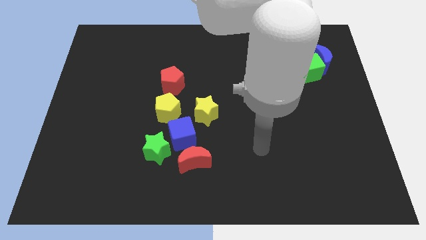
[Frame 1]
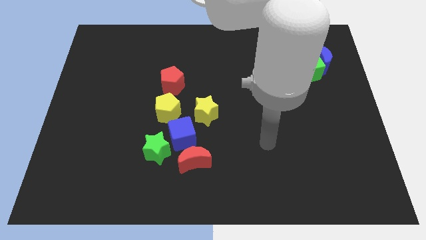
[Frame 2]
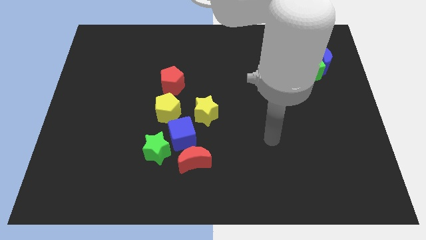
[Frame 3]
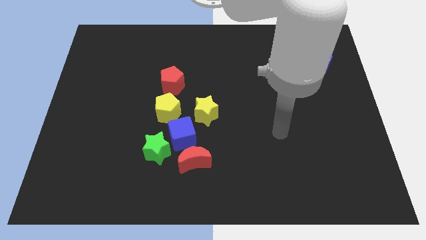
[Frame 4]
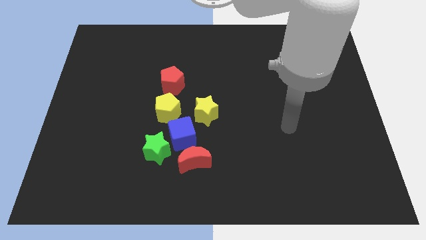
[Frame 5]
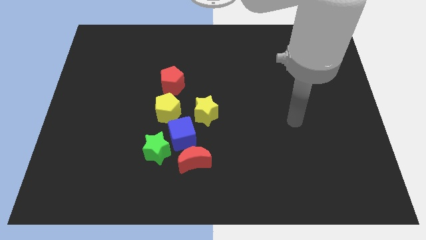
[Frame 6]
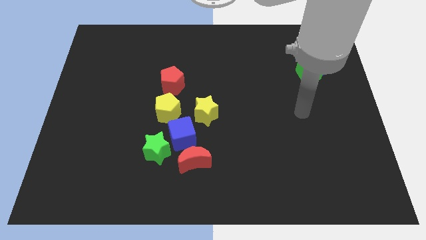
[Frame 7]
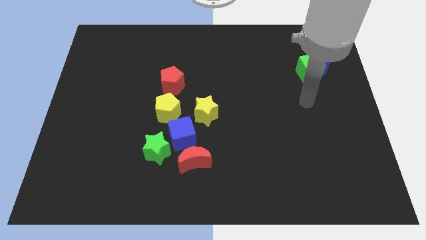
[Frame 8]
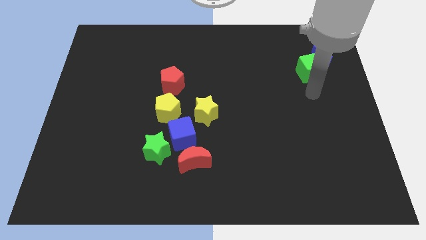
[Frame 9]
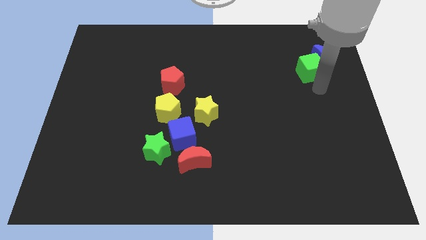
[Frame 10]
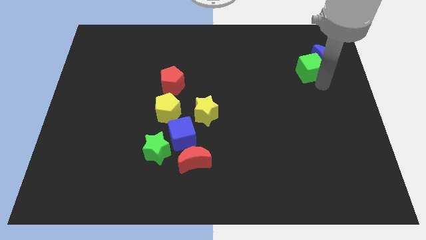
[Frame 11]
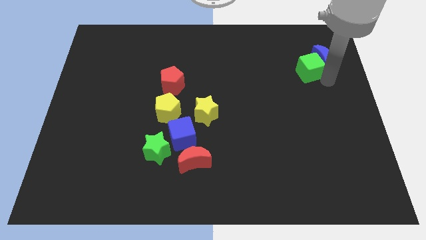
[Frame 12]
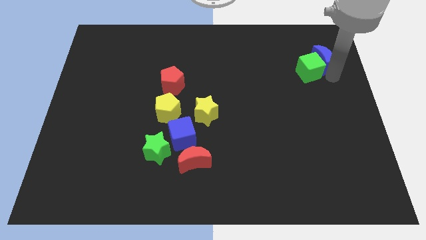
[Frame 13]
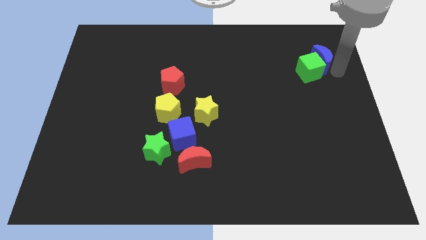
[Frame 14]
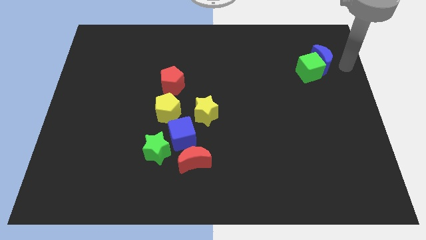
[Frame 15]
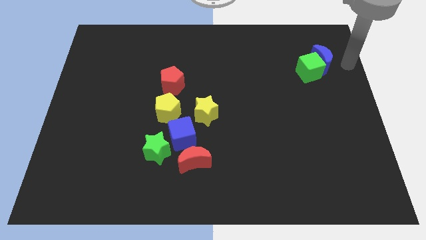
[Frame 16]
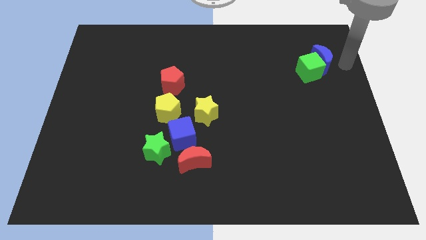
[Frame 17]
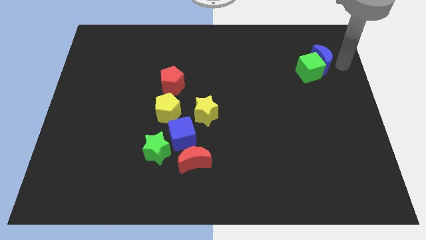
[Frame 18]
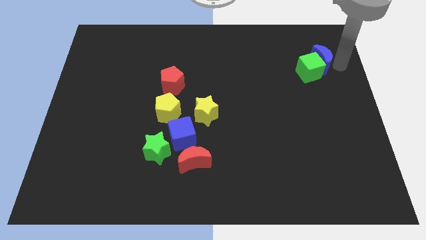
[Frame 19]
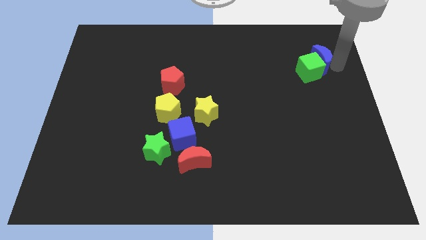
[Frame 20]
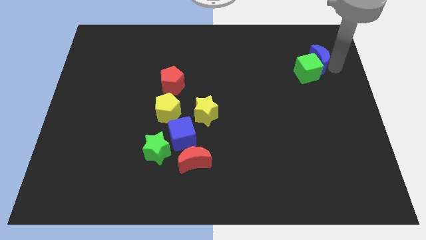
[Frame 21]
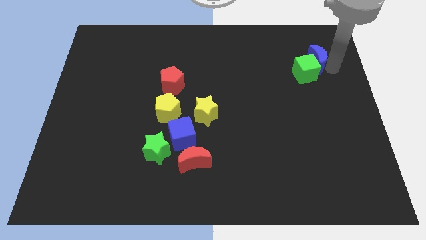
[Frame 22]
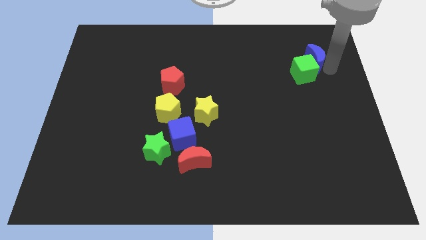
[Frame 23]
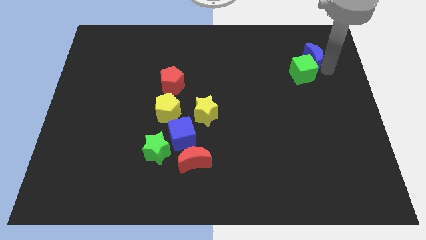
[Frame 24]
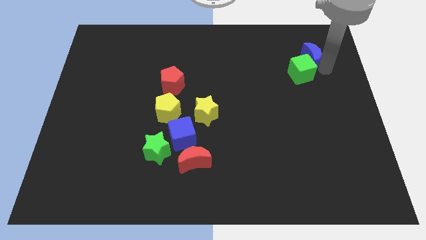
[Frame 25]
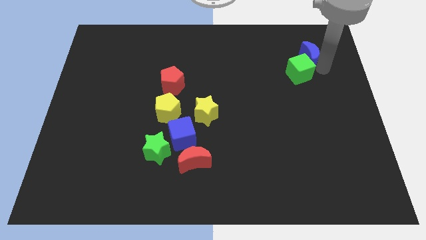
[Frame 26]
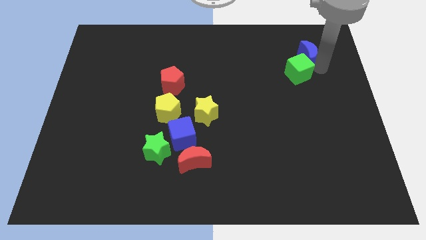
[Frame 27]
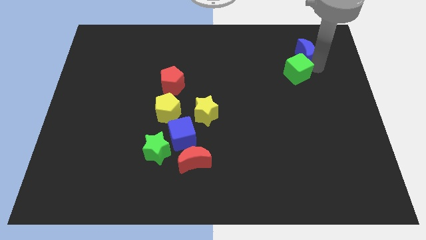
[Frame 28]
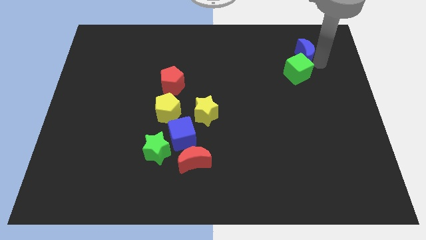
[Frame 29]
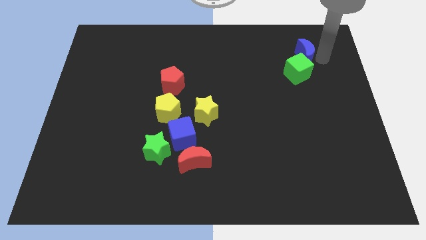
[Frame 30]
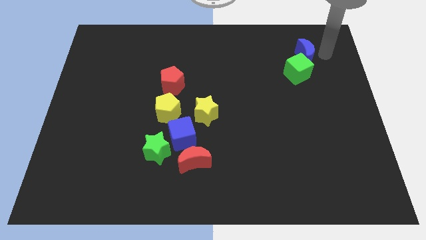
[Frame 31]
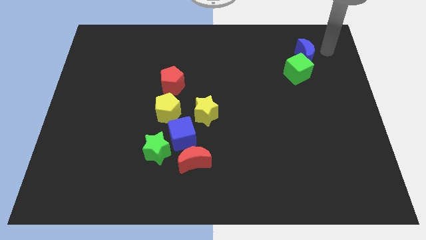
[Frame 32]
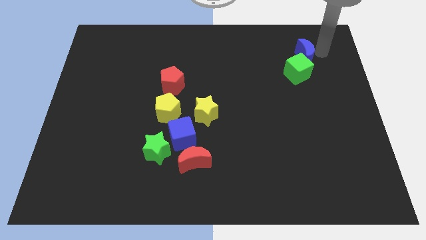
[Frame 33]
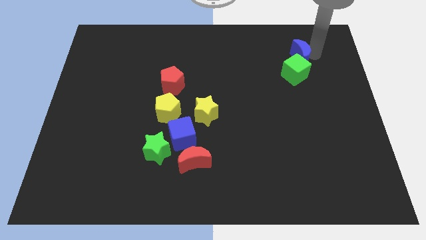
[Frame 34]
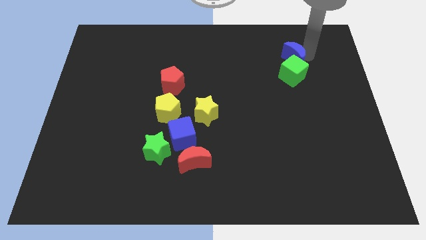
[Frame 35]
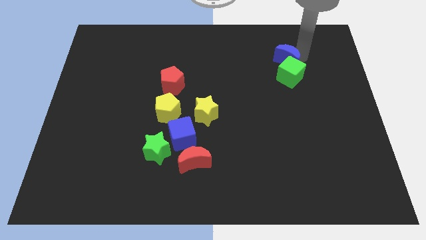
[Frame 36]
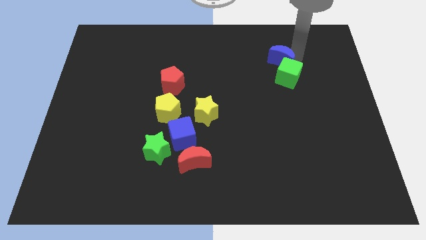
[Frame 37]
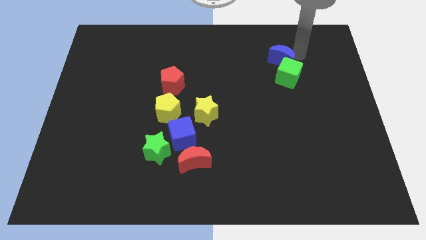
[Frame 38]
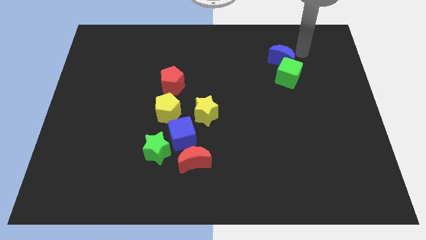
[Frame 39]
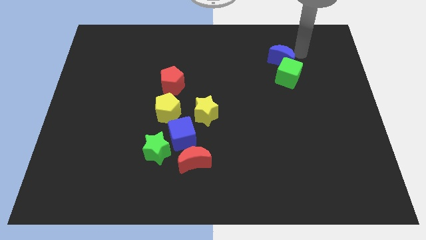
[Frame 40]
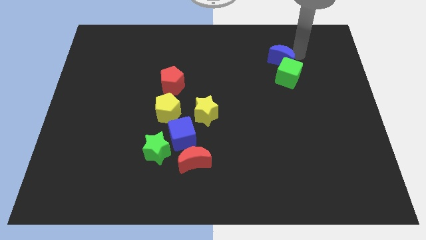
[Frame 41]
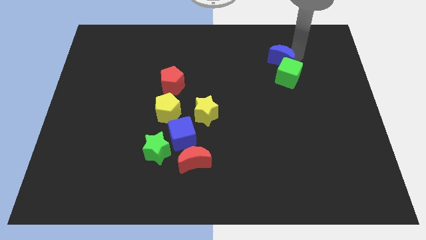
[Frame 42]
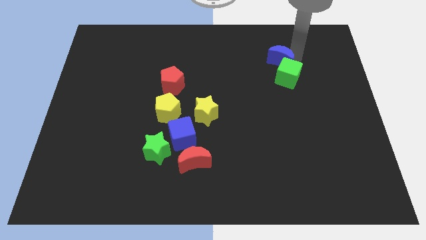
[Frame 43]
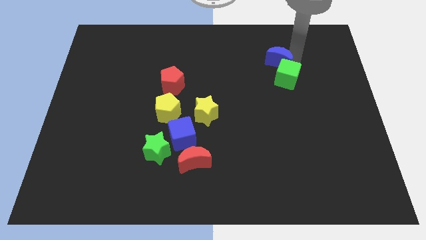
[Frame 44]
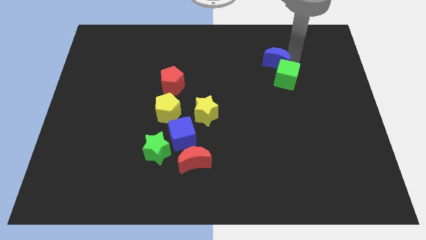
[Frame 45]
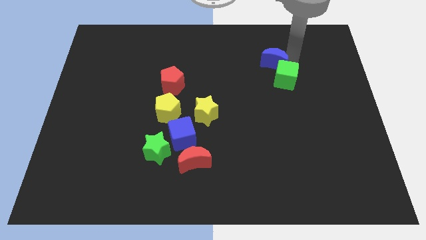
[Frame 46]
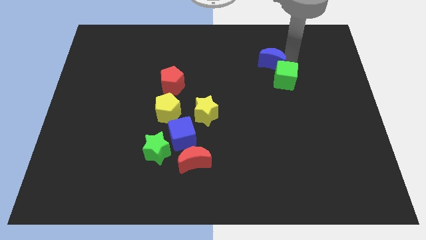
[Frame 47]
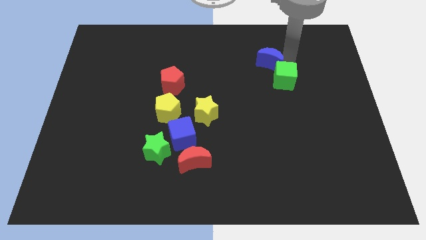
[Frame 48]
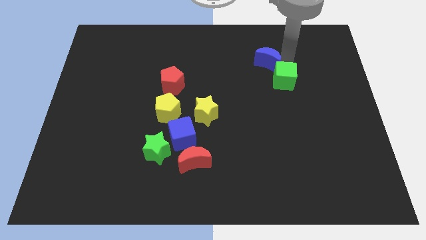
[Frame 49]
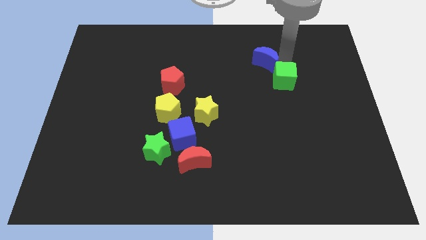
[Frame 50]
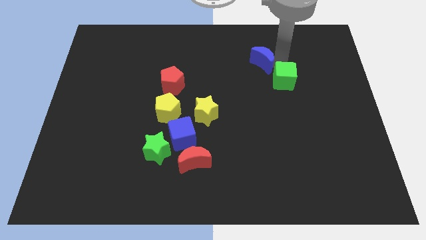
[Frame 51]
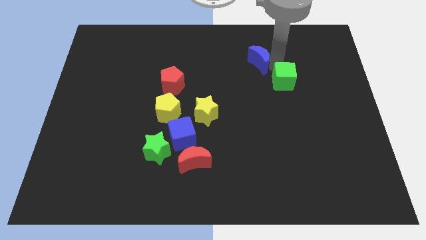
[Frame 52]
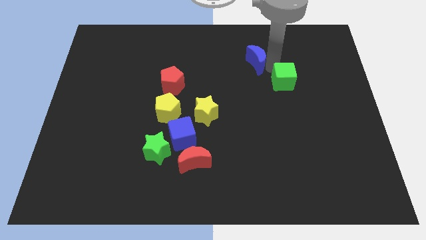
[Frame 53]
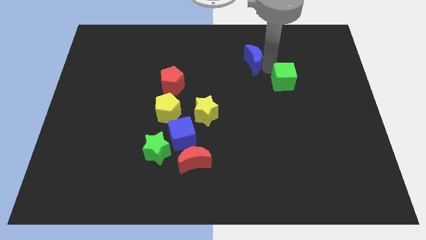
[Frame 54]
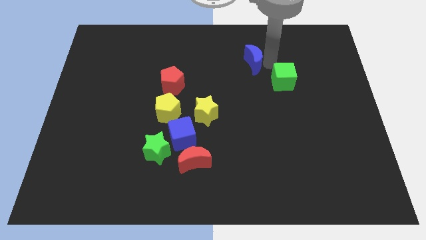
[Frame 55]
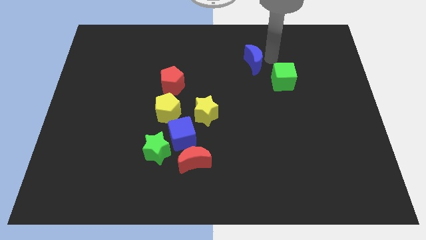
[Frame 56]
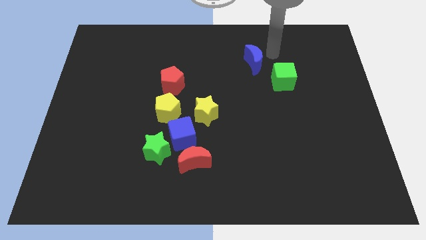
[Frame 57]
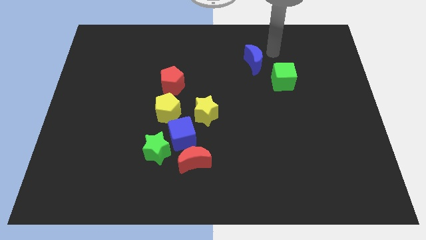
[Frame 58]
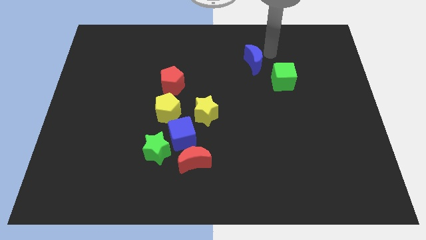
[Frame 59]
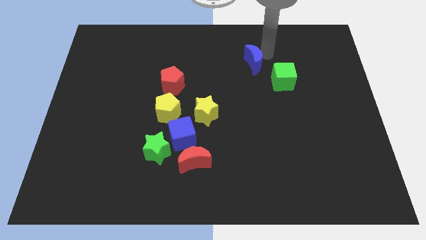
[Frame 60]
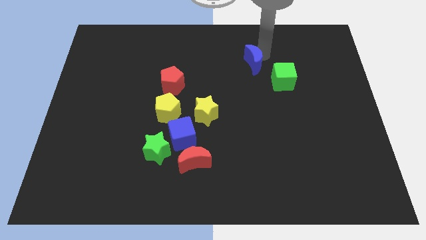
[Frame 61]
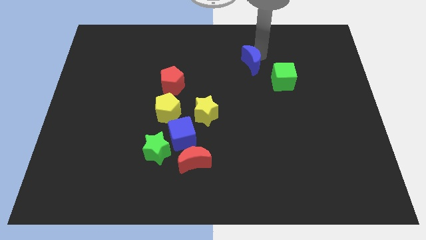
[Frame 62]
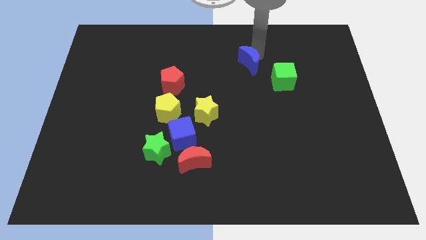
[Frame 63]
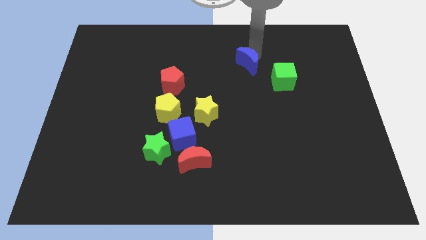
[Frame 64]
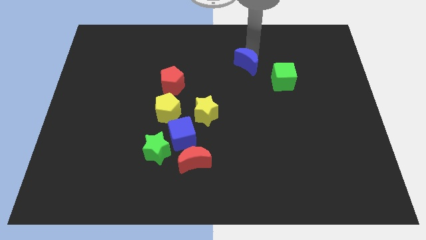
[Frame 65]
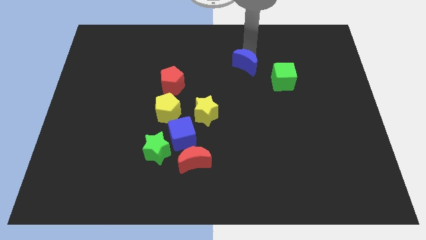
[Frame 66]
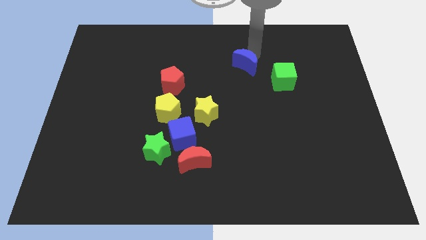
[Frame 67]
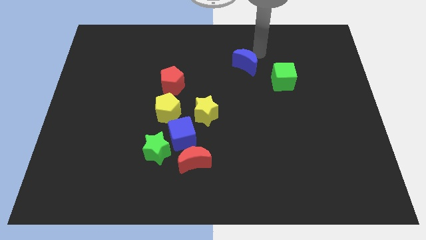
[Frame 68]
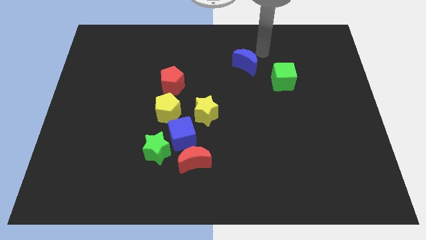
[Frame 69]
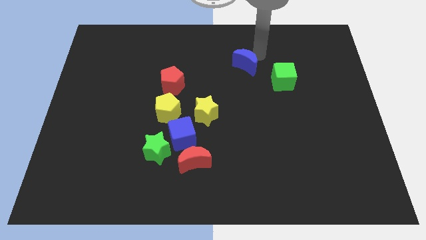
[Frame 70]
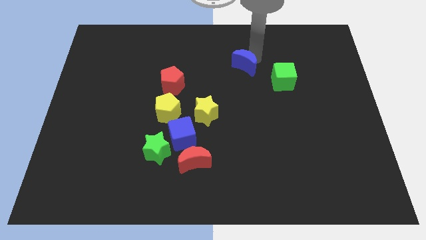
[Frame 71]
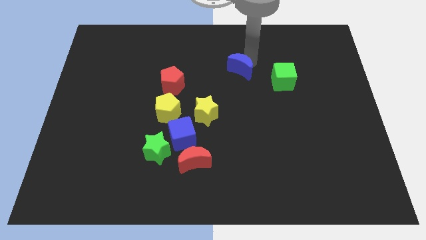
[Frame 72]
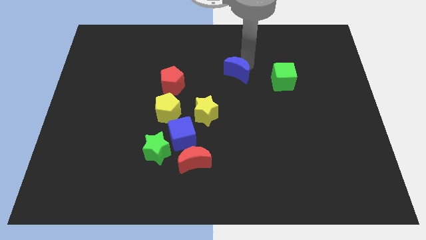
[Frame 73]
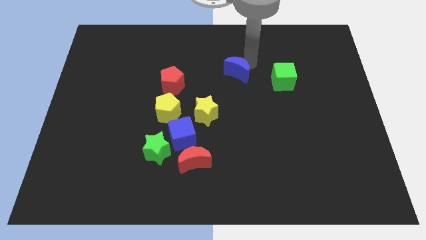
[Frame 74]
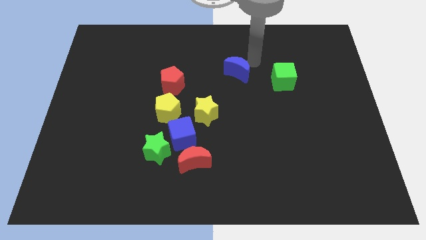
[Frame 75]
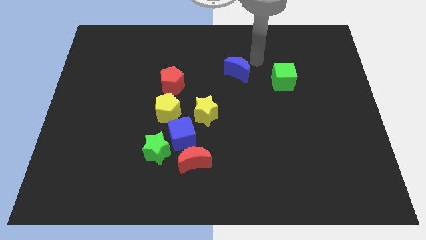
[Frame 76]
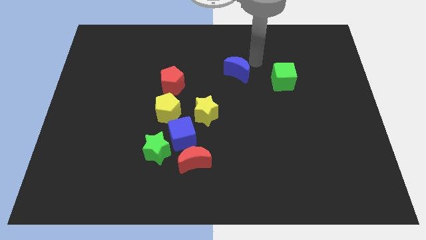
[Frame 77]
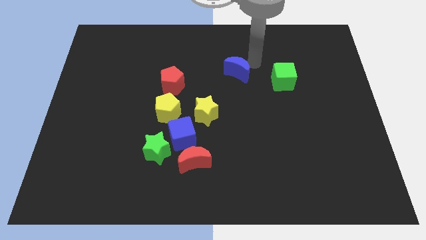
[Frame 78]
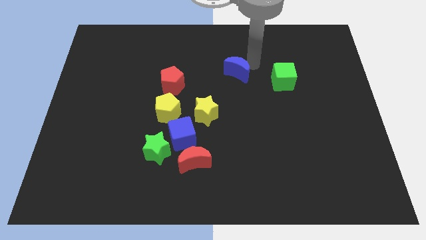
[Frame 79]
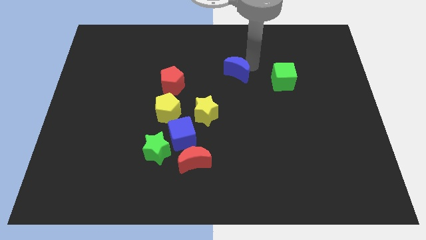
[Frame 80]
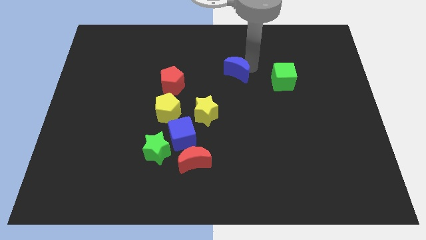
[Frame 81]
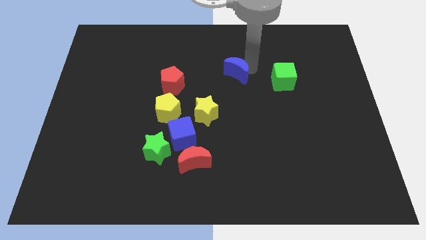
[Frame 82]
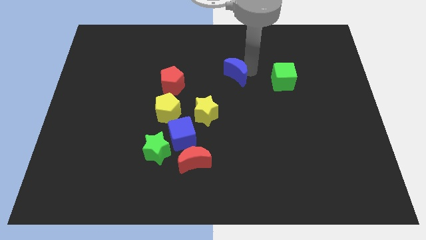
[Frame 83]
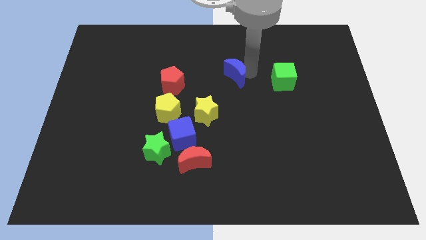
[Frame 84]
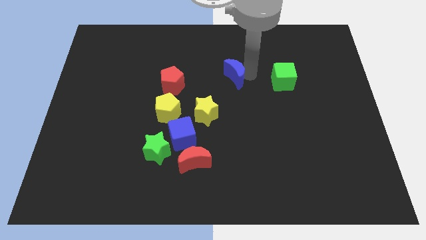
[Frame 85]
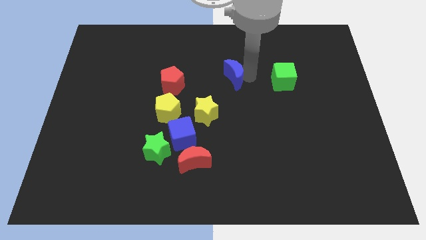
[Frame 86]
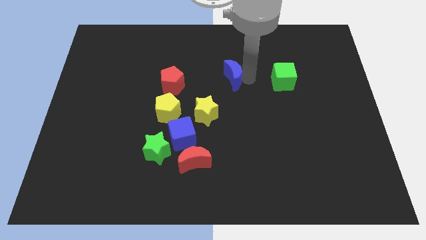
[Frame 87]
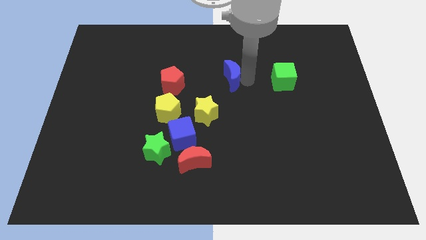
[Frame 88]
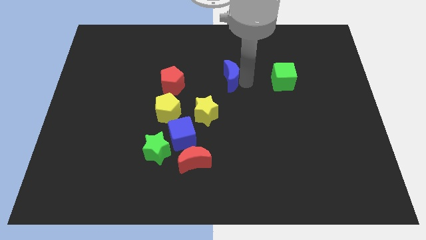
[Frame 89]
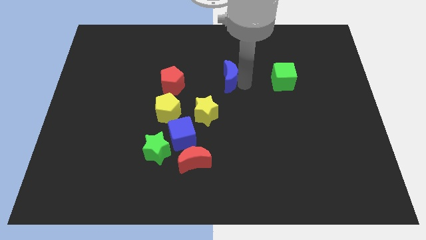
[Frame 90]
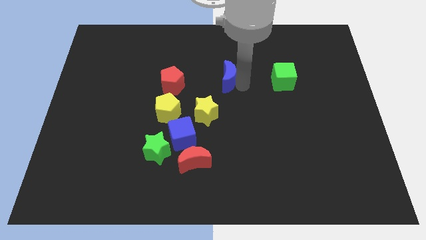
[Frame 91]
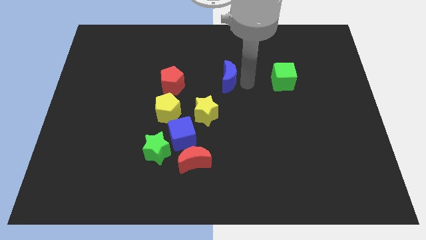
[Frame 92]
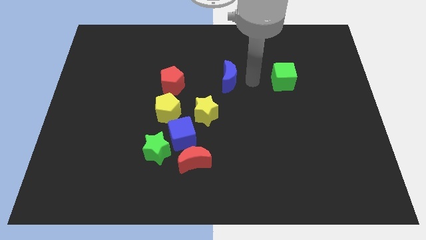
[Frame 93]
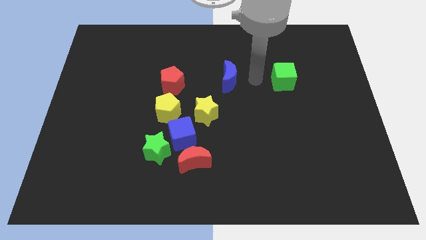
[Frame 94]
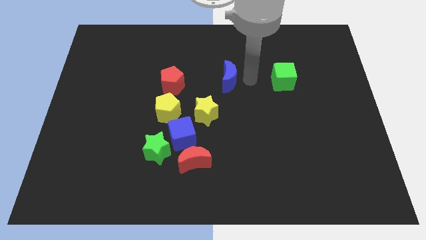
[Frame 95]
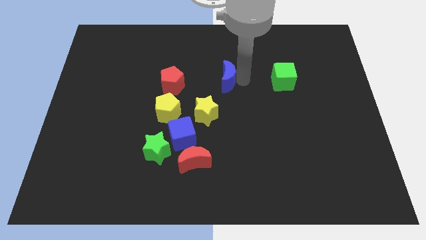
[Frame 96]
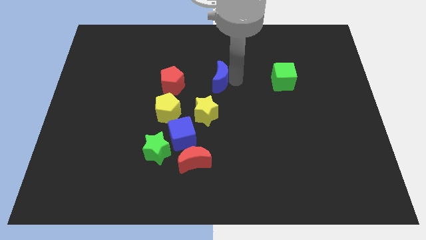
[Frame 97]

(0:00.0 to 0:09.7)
put the blue moon above the yellow star
